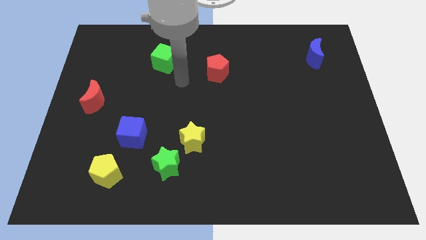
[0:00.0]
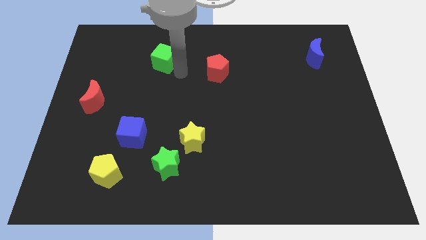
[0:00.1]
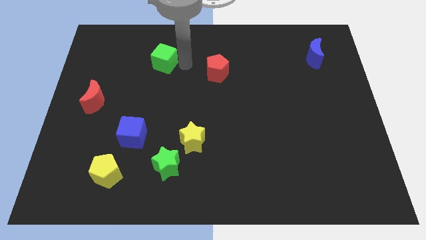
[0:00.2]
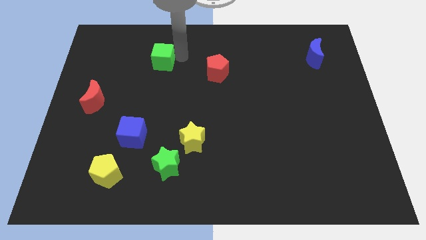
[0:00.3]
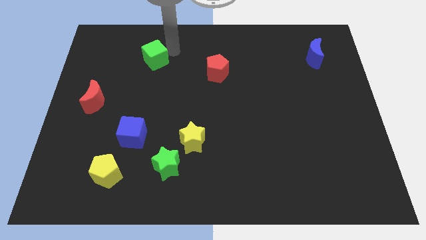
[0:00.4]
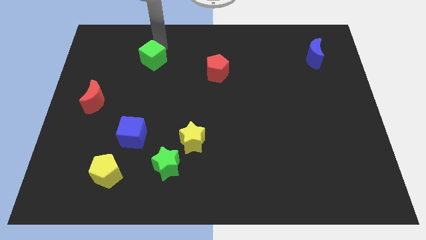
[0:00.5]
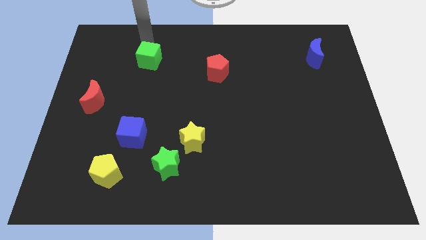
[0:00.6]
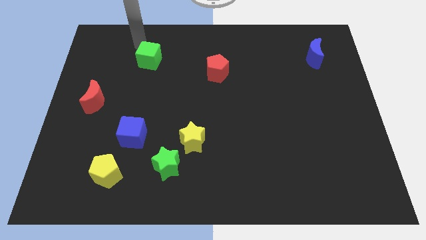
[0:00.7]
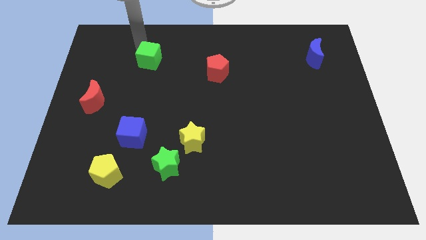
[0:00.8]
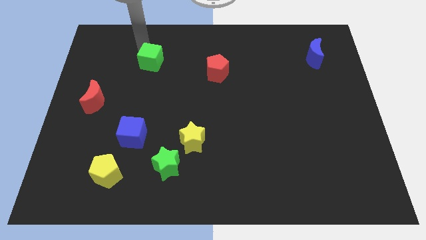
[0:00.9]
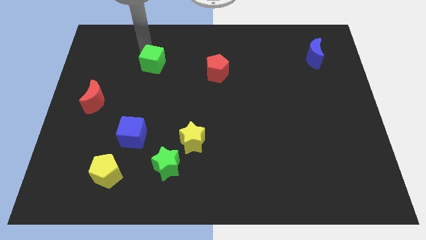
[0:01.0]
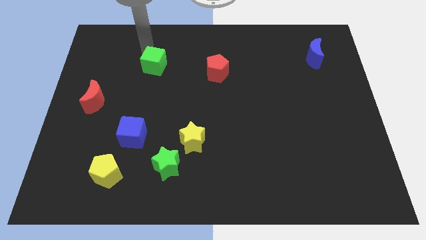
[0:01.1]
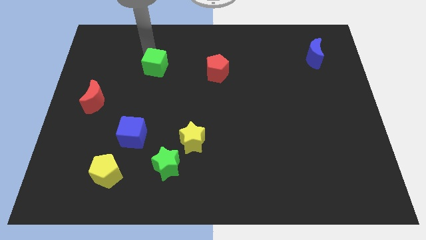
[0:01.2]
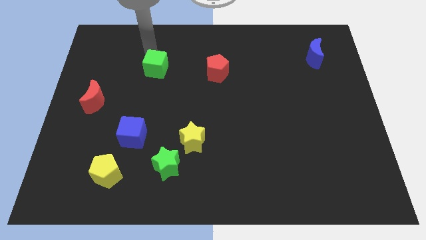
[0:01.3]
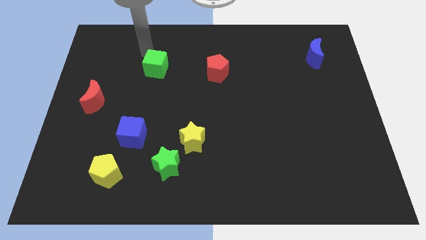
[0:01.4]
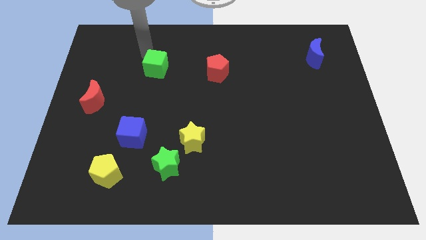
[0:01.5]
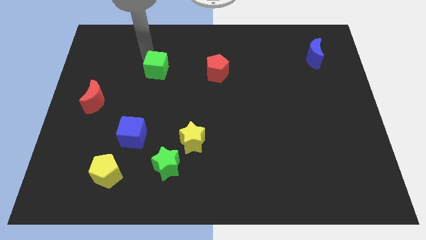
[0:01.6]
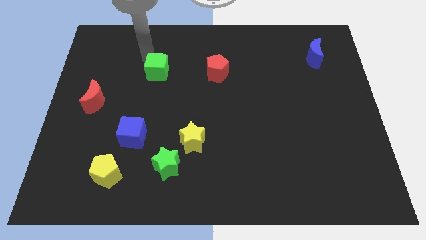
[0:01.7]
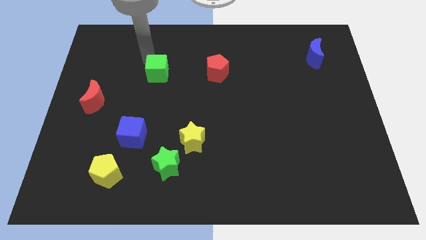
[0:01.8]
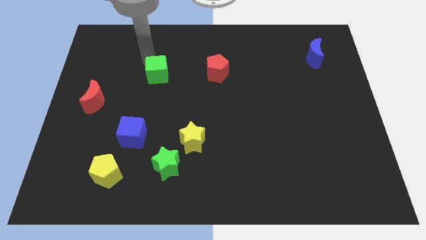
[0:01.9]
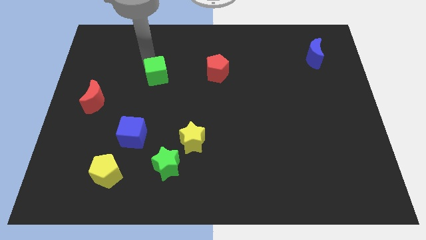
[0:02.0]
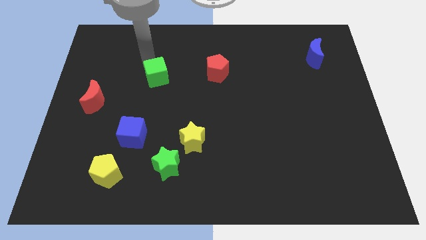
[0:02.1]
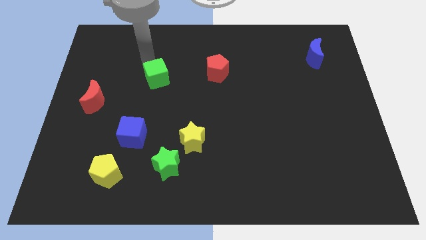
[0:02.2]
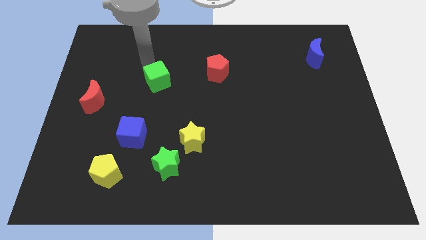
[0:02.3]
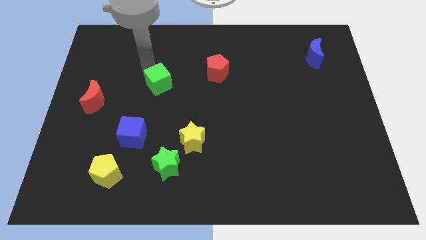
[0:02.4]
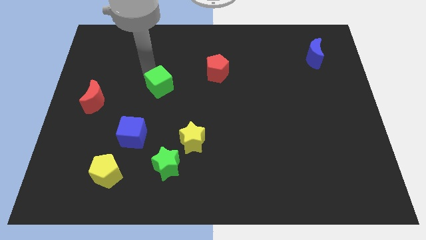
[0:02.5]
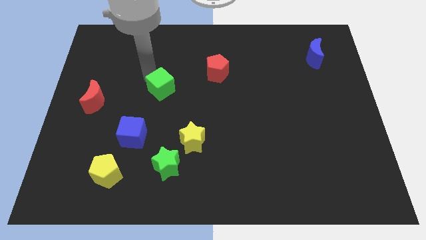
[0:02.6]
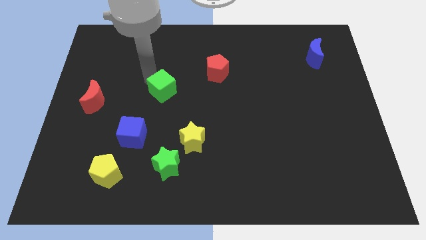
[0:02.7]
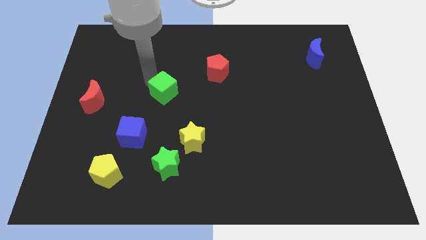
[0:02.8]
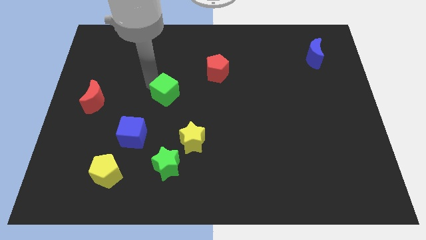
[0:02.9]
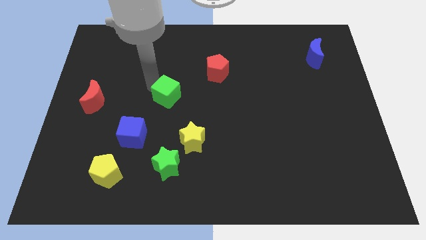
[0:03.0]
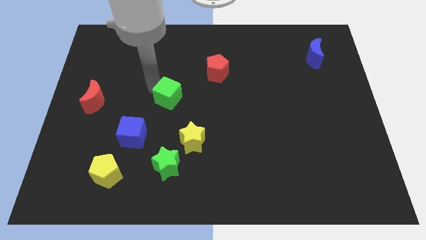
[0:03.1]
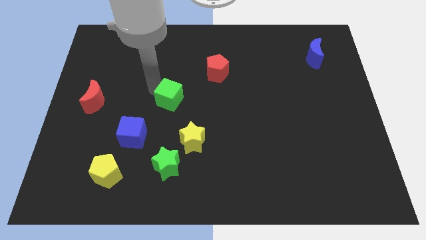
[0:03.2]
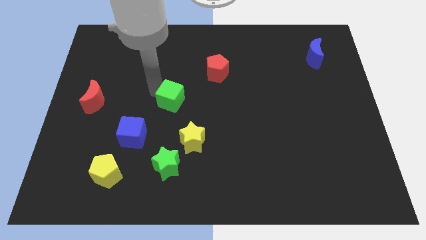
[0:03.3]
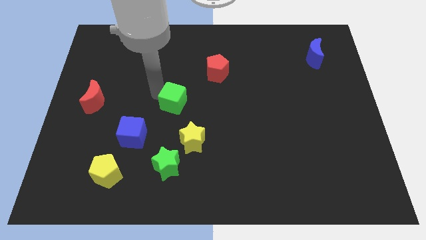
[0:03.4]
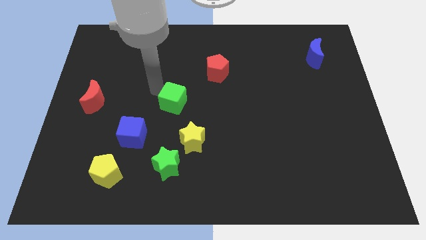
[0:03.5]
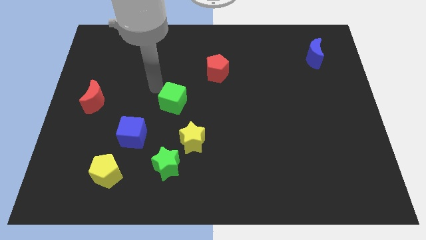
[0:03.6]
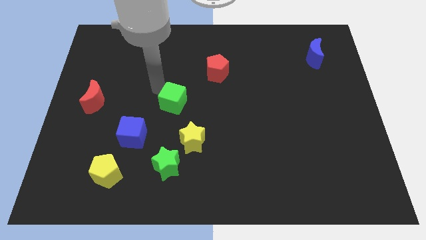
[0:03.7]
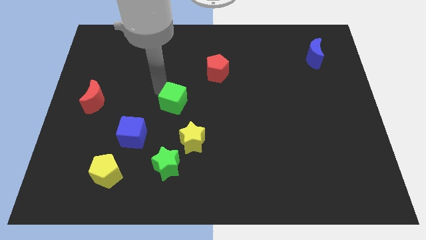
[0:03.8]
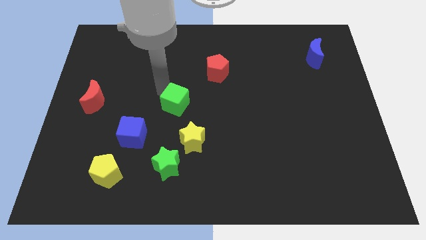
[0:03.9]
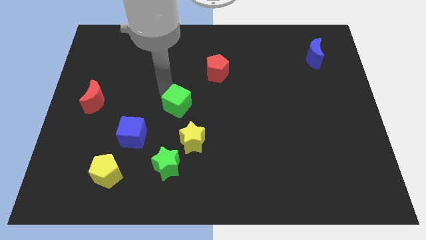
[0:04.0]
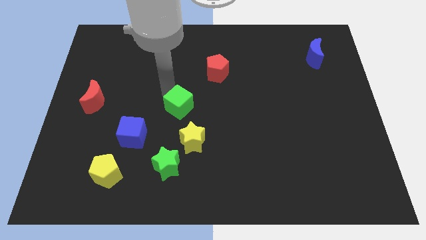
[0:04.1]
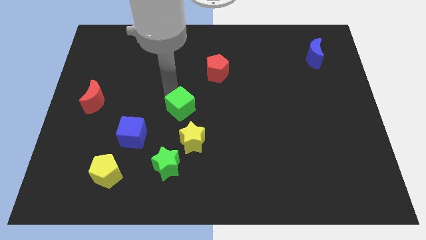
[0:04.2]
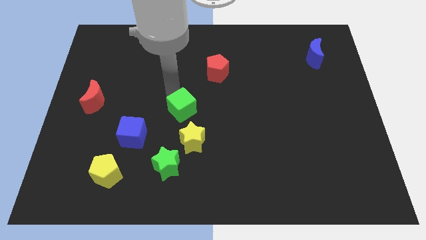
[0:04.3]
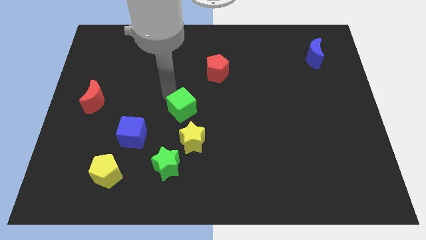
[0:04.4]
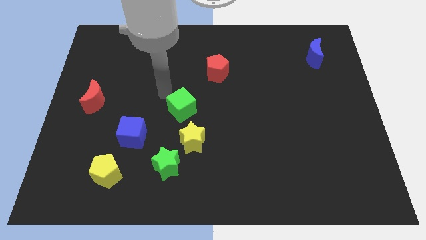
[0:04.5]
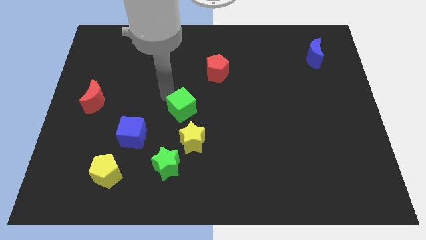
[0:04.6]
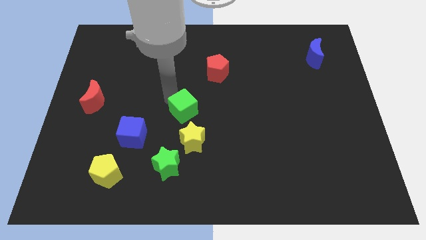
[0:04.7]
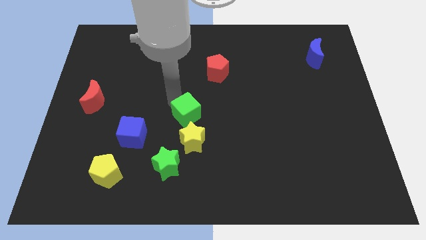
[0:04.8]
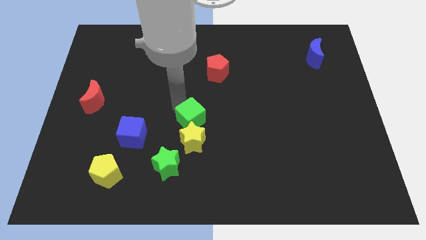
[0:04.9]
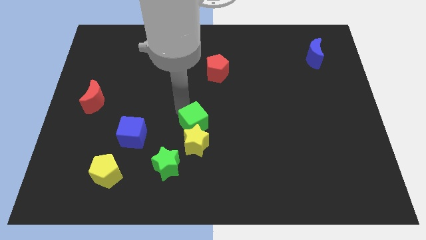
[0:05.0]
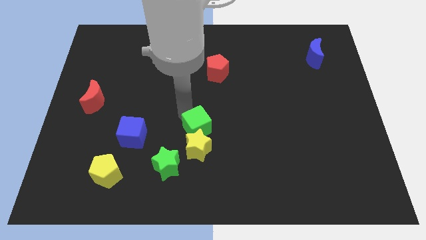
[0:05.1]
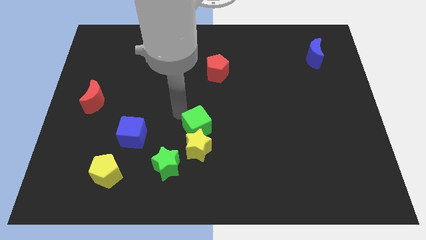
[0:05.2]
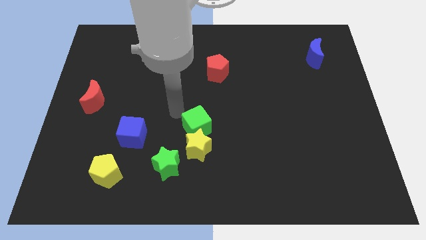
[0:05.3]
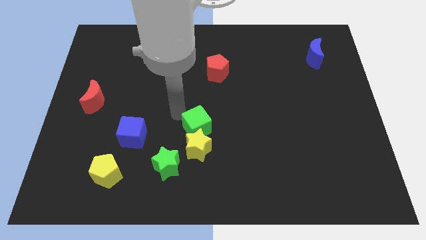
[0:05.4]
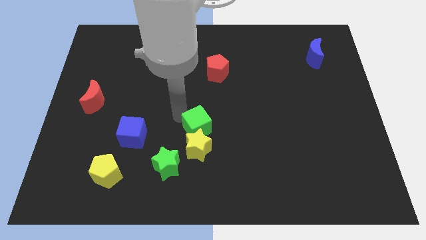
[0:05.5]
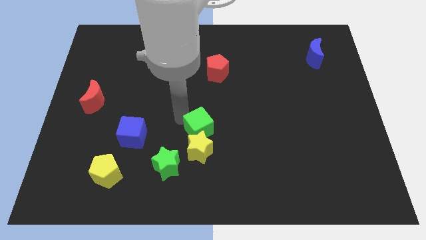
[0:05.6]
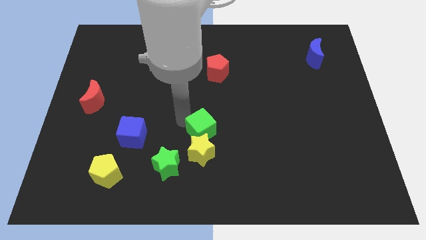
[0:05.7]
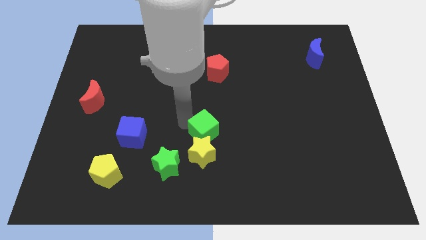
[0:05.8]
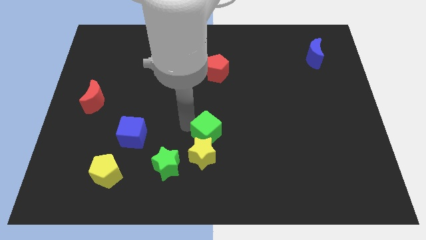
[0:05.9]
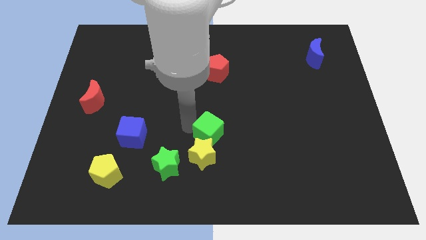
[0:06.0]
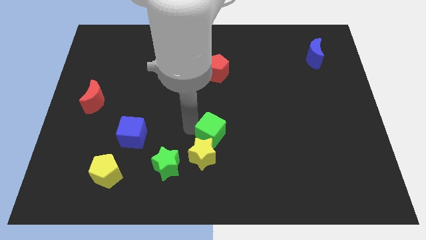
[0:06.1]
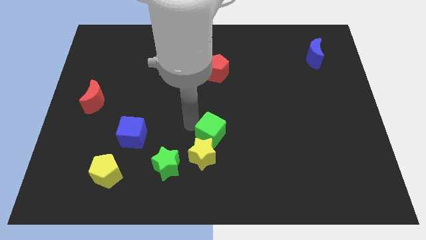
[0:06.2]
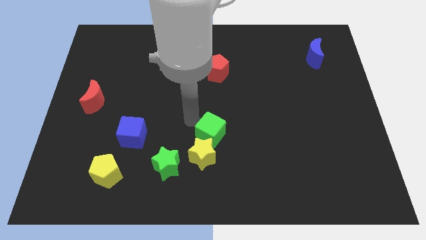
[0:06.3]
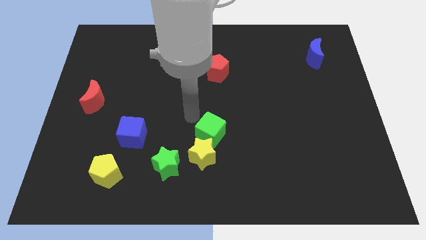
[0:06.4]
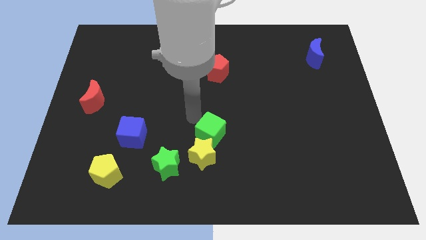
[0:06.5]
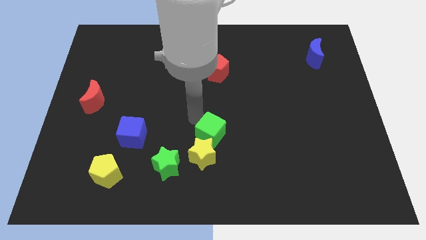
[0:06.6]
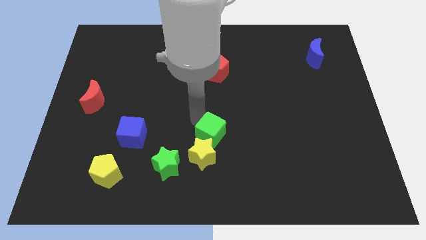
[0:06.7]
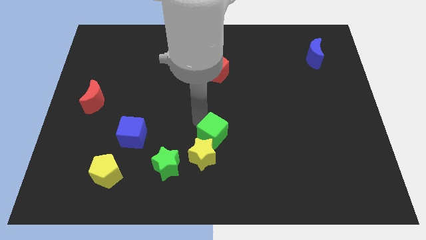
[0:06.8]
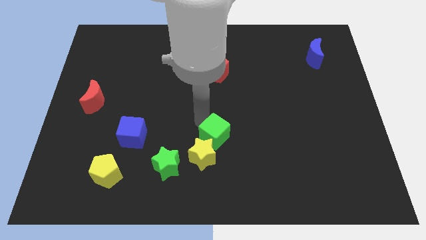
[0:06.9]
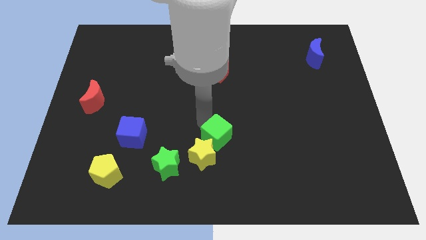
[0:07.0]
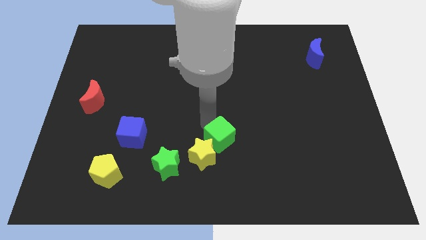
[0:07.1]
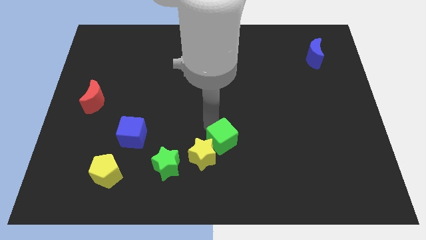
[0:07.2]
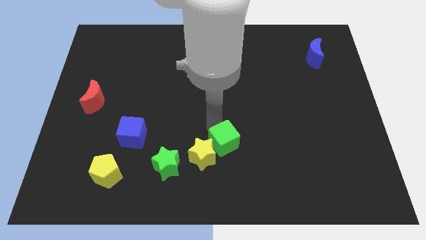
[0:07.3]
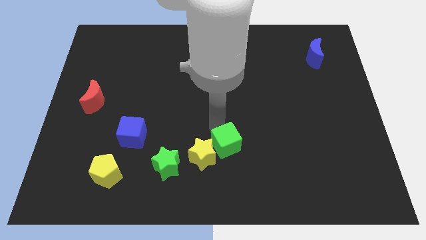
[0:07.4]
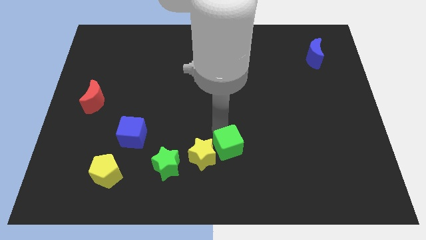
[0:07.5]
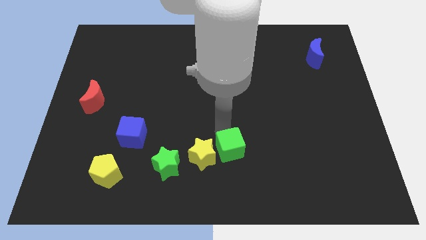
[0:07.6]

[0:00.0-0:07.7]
push the green cube right of the green star
